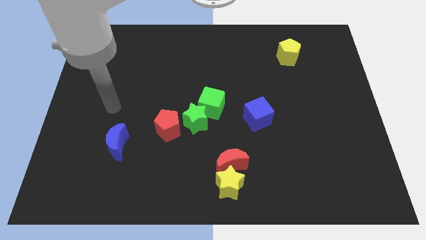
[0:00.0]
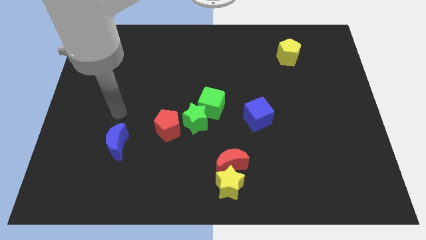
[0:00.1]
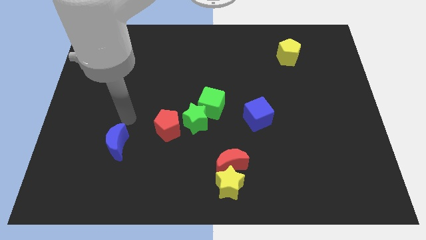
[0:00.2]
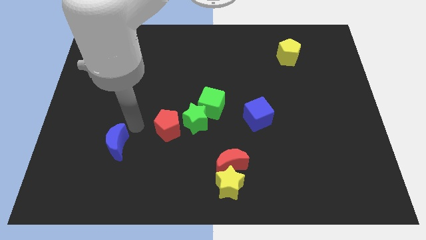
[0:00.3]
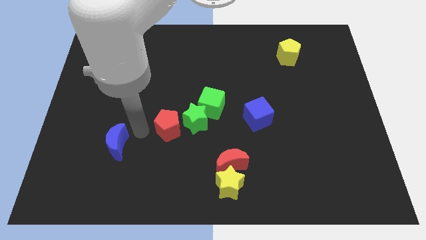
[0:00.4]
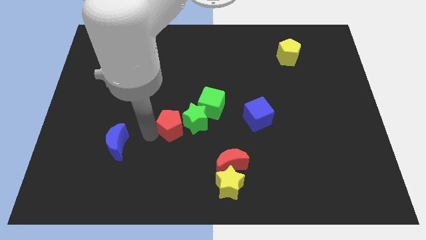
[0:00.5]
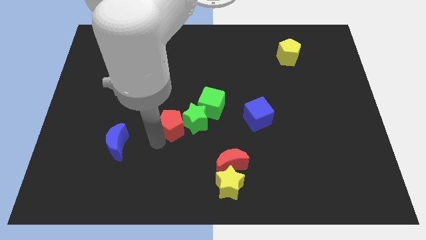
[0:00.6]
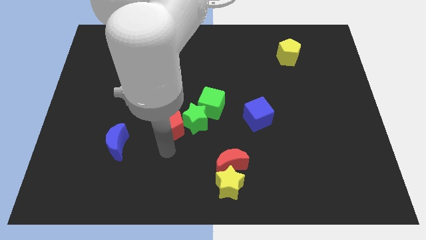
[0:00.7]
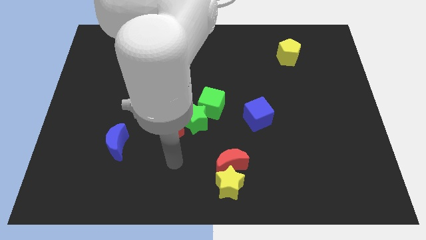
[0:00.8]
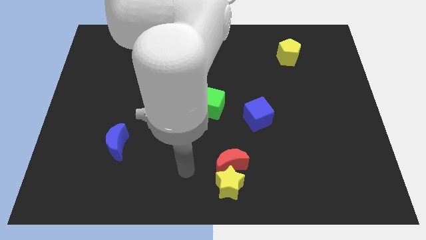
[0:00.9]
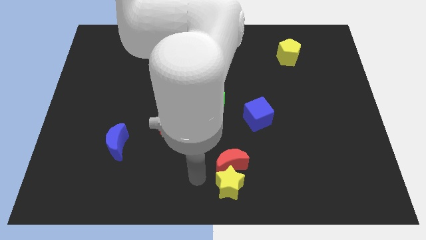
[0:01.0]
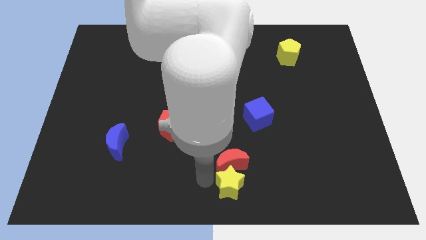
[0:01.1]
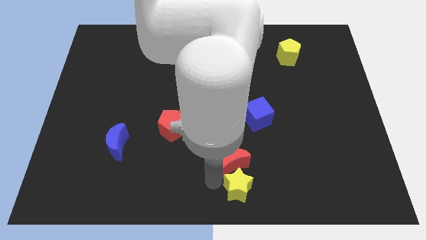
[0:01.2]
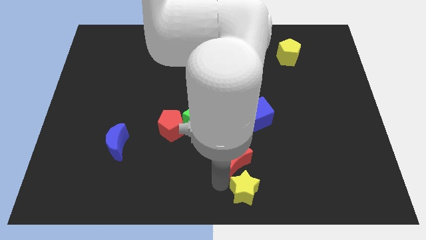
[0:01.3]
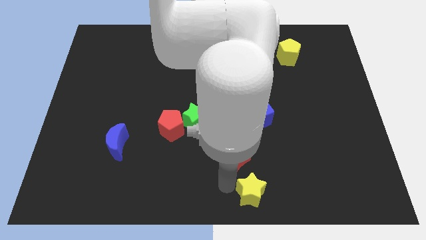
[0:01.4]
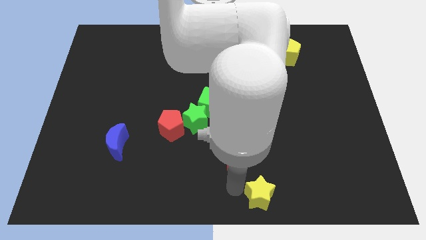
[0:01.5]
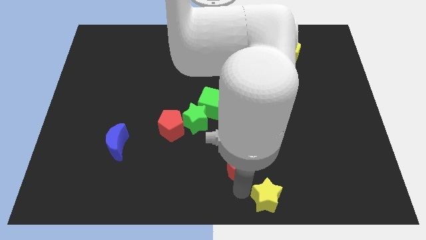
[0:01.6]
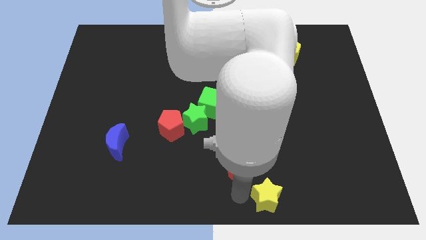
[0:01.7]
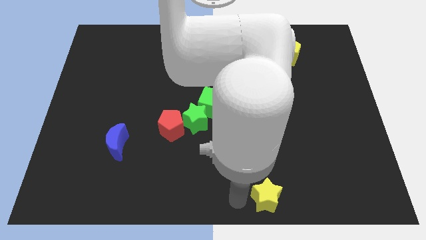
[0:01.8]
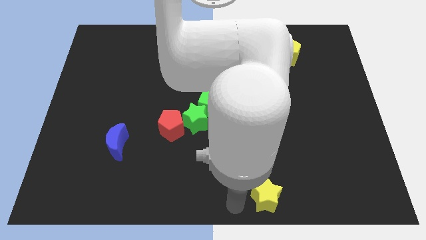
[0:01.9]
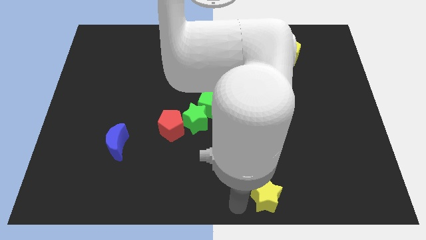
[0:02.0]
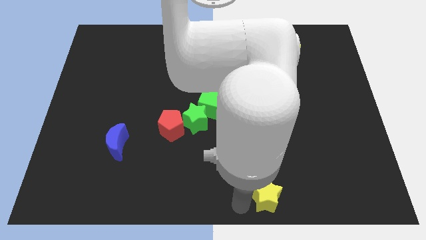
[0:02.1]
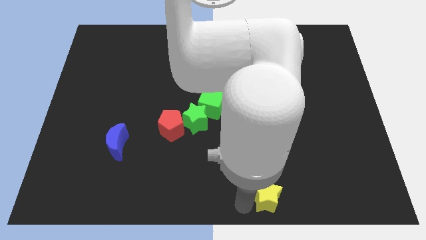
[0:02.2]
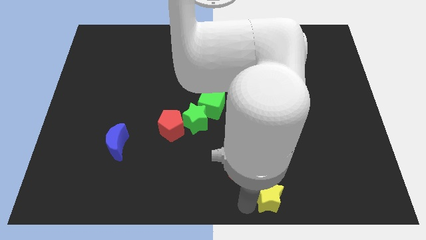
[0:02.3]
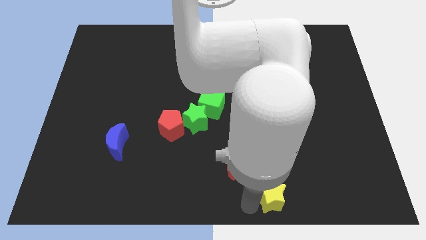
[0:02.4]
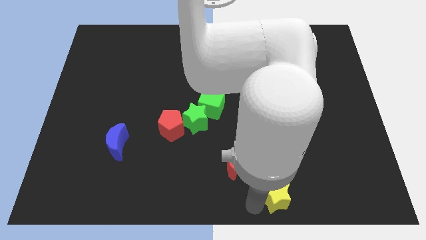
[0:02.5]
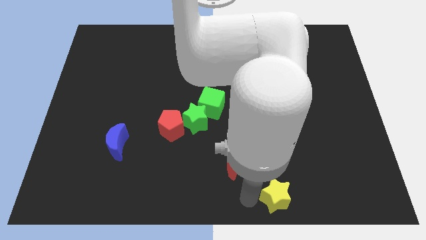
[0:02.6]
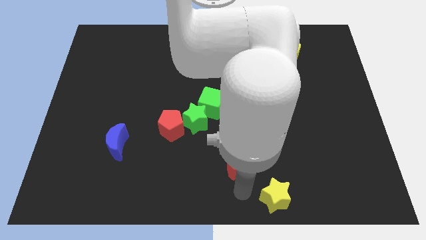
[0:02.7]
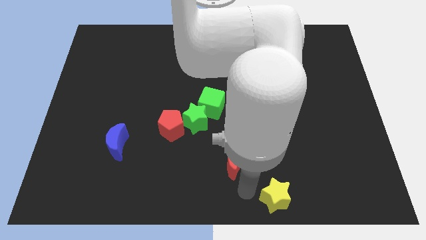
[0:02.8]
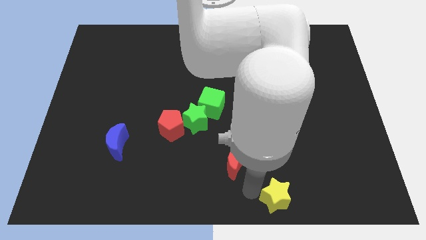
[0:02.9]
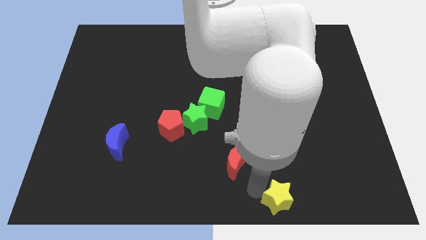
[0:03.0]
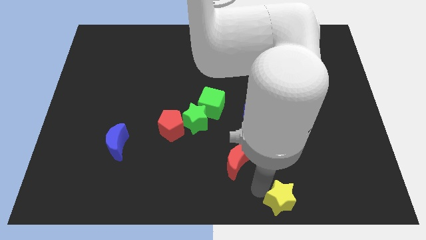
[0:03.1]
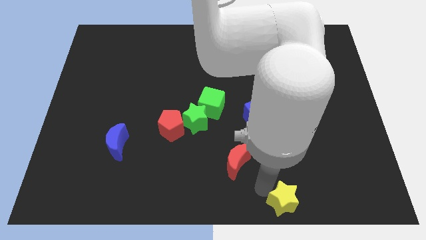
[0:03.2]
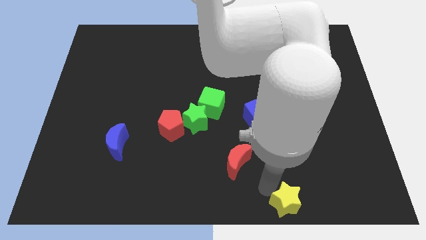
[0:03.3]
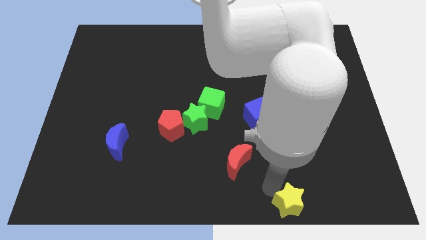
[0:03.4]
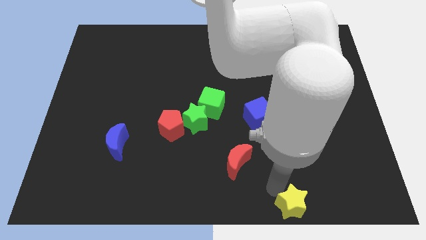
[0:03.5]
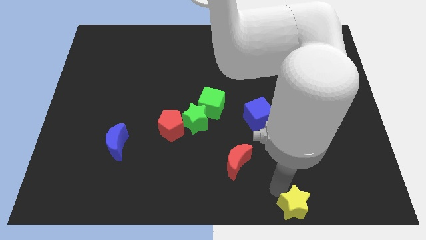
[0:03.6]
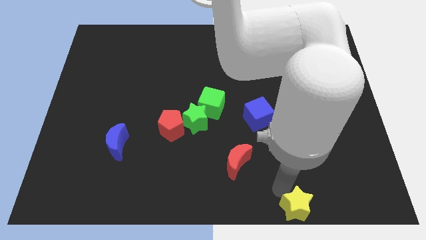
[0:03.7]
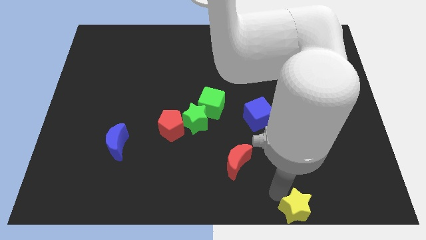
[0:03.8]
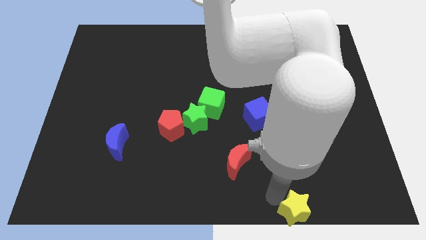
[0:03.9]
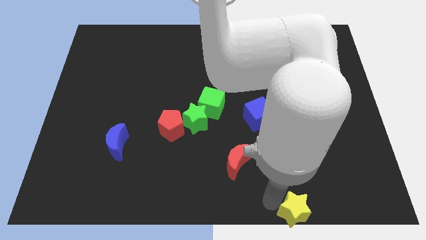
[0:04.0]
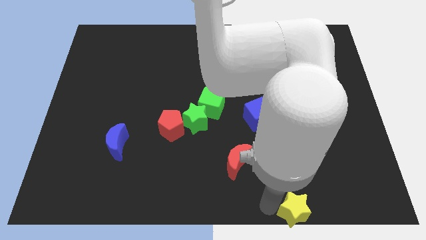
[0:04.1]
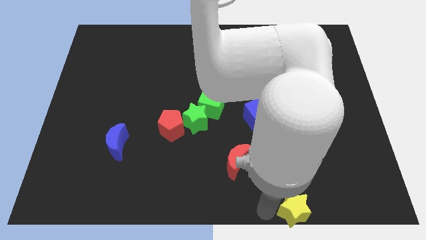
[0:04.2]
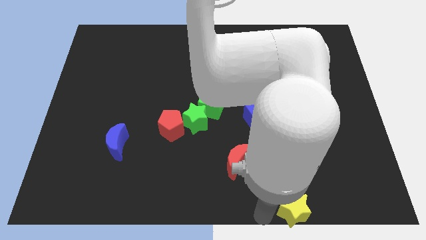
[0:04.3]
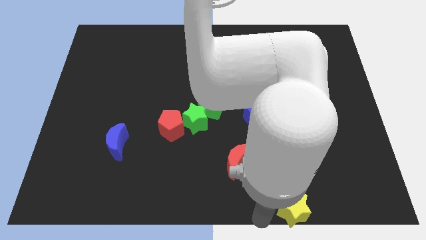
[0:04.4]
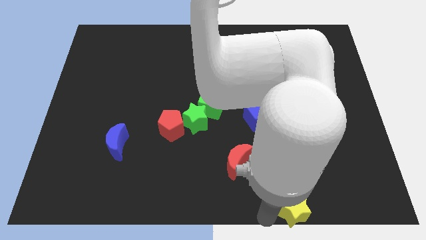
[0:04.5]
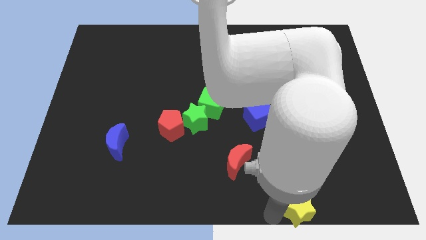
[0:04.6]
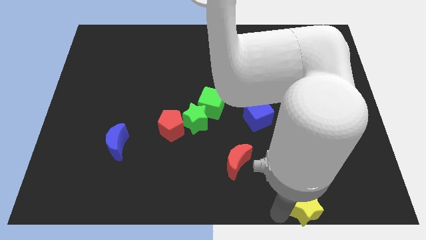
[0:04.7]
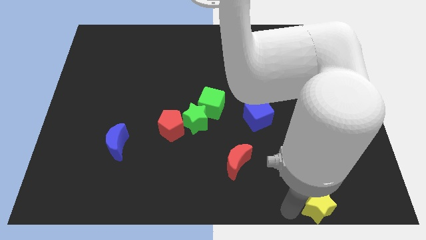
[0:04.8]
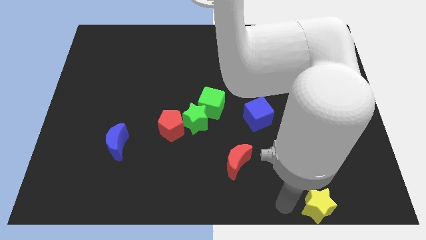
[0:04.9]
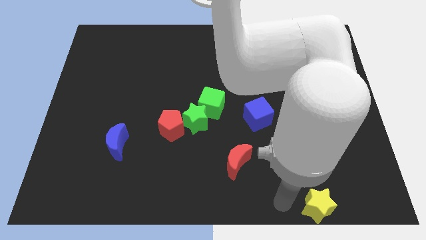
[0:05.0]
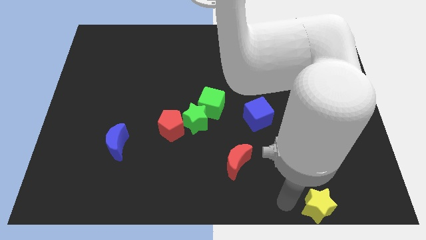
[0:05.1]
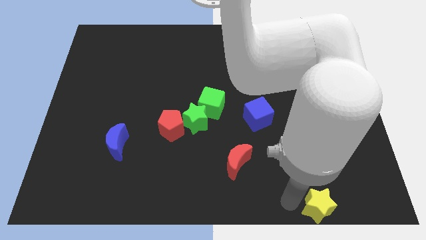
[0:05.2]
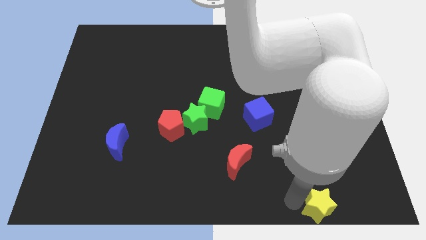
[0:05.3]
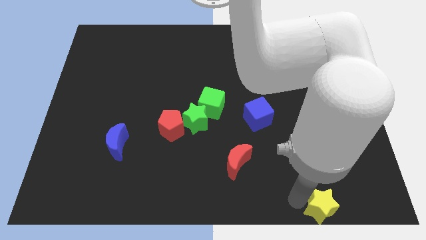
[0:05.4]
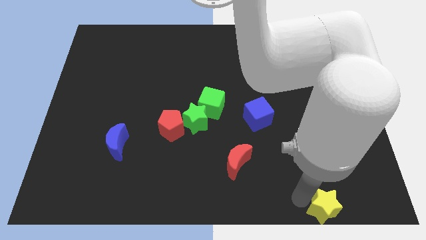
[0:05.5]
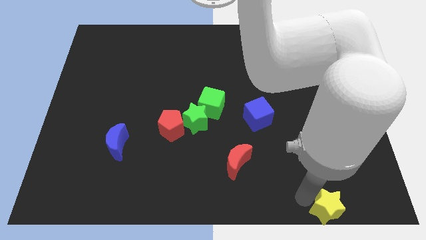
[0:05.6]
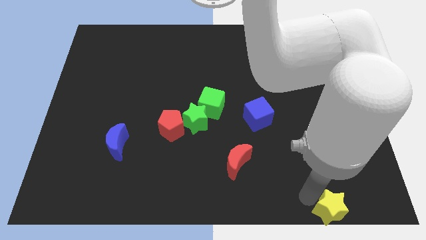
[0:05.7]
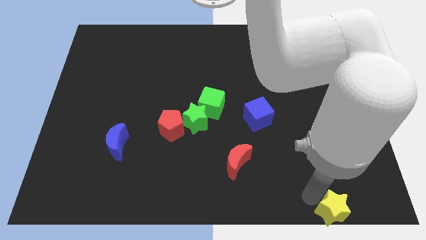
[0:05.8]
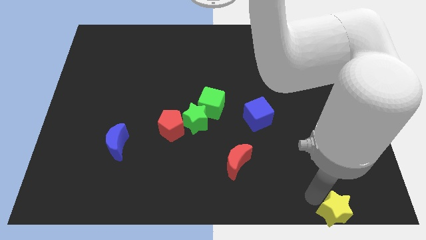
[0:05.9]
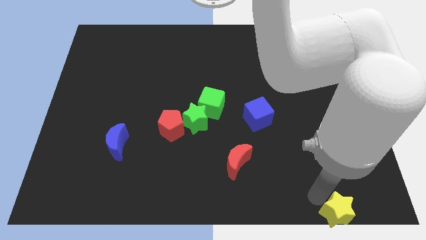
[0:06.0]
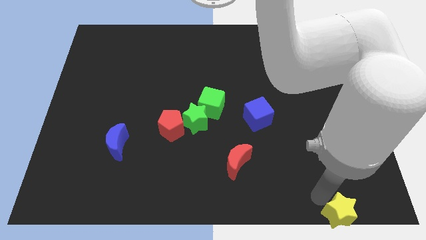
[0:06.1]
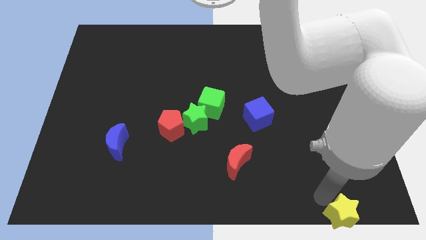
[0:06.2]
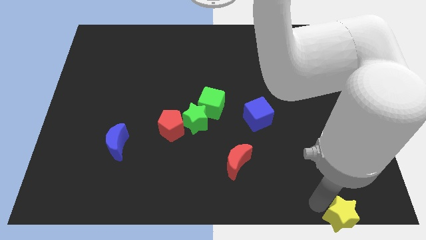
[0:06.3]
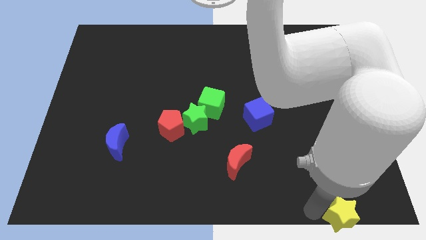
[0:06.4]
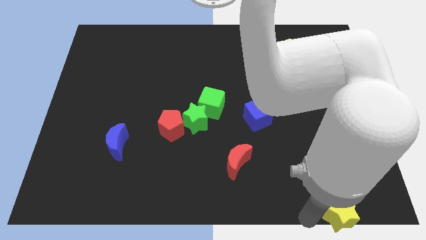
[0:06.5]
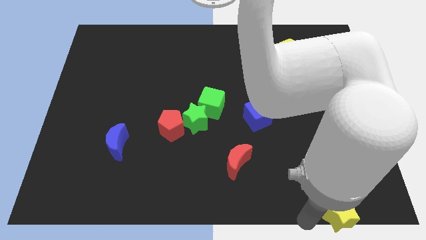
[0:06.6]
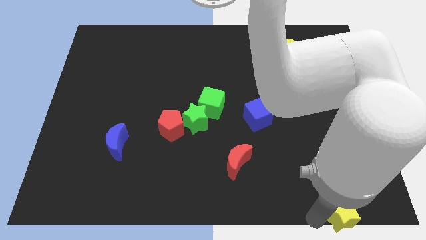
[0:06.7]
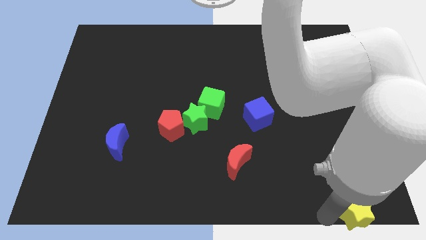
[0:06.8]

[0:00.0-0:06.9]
put the yellow star to the bottom right of the board
